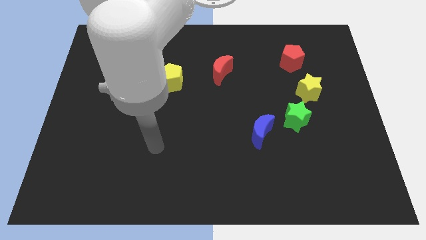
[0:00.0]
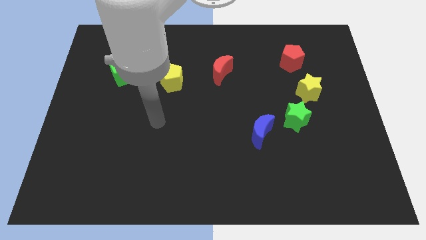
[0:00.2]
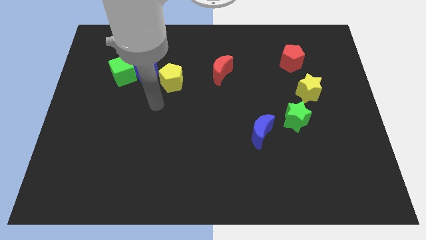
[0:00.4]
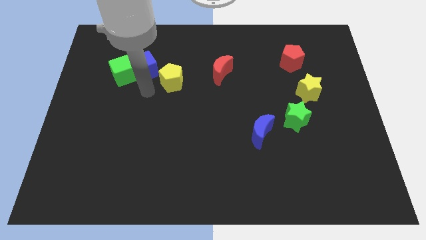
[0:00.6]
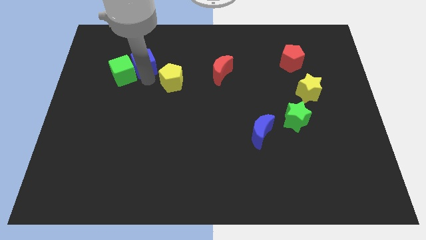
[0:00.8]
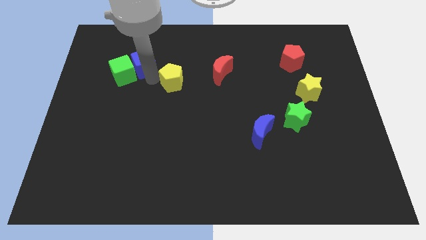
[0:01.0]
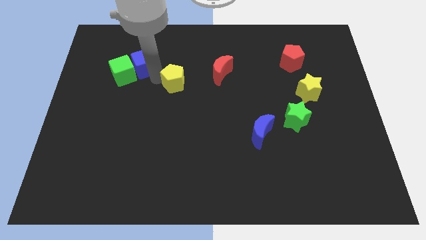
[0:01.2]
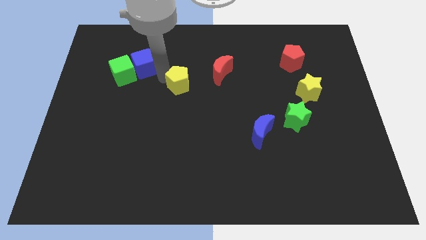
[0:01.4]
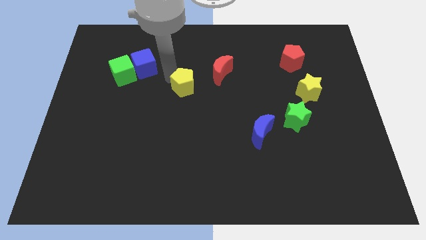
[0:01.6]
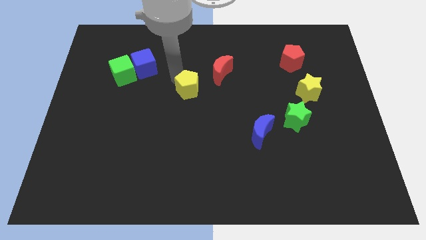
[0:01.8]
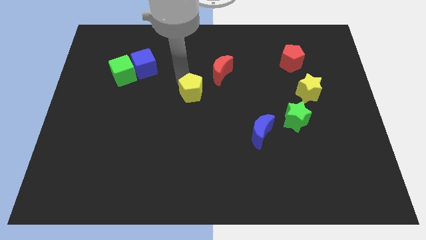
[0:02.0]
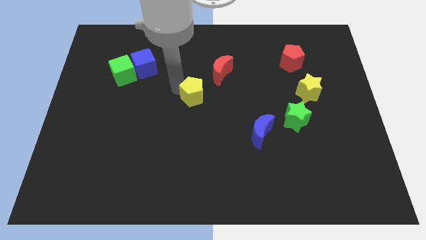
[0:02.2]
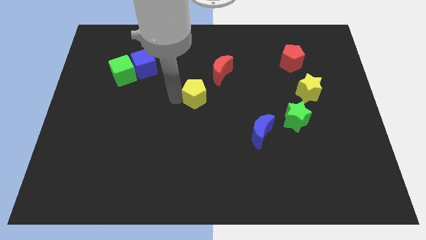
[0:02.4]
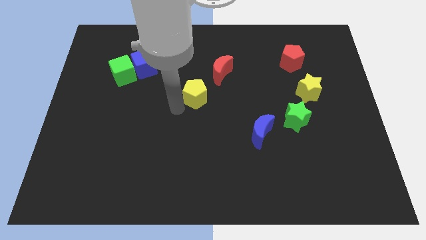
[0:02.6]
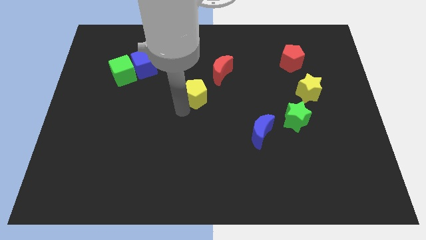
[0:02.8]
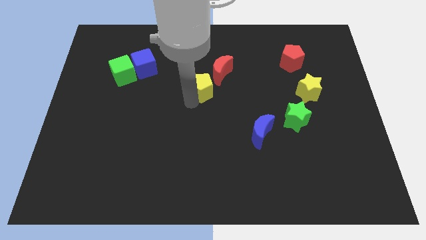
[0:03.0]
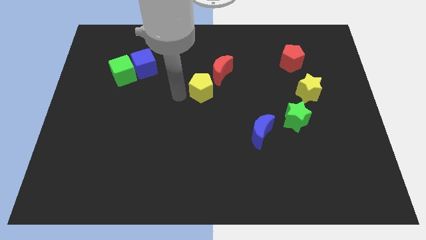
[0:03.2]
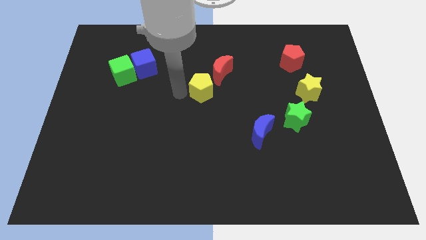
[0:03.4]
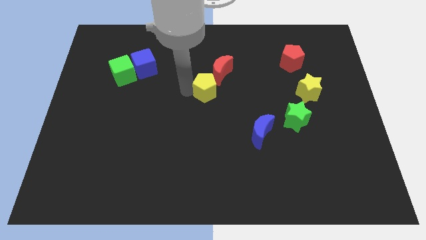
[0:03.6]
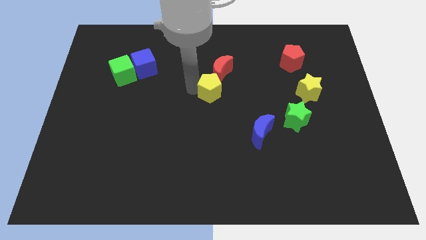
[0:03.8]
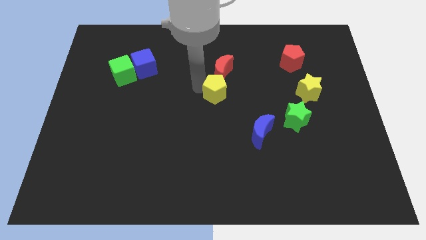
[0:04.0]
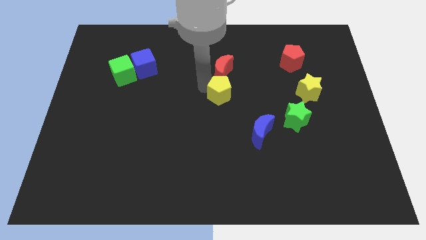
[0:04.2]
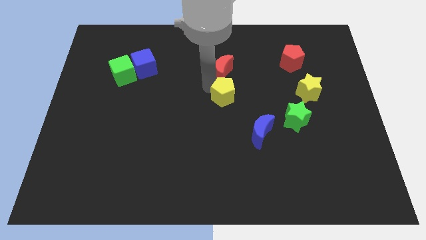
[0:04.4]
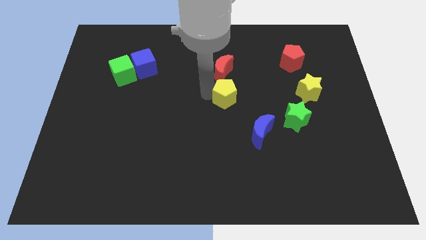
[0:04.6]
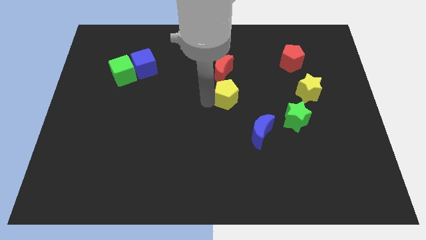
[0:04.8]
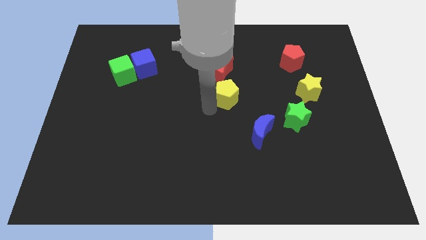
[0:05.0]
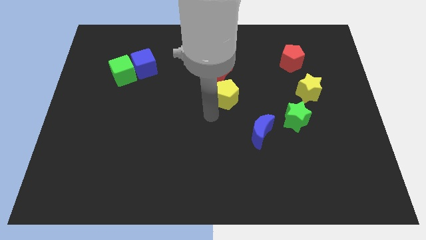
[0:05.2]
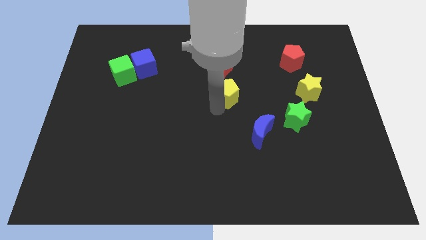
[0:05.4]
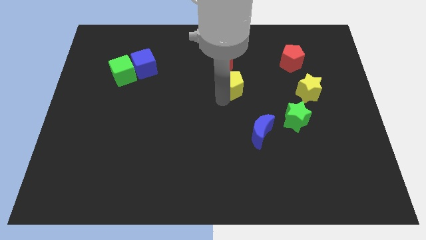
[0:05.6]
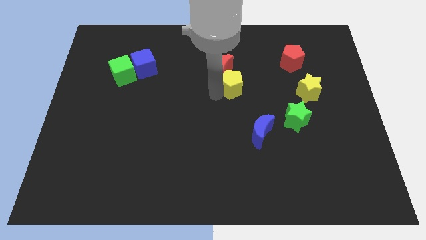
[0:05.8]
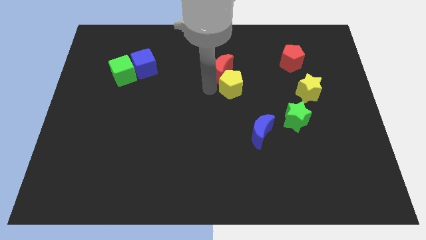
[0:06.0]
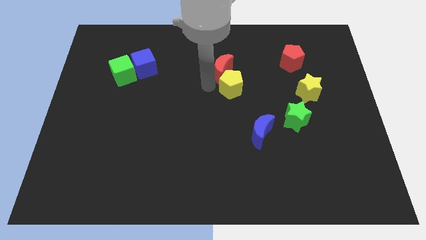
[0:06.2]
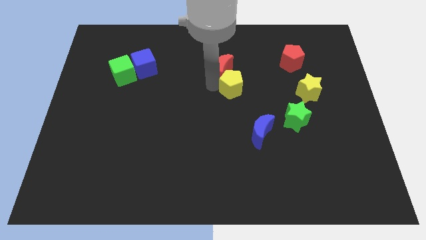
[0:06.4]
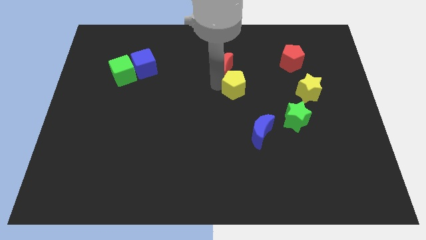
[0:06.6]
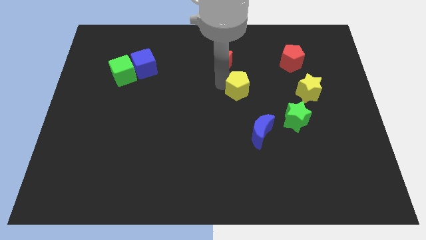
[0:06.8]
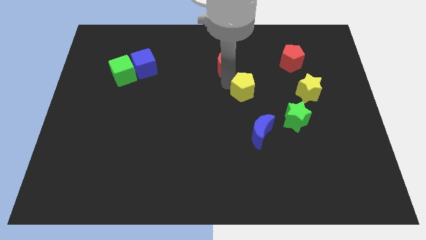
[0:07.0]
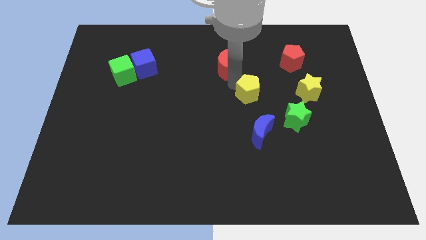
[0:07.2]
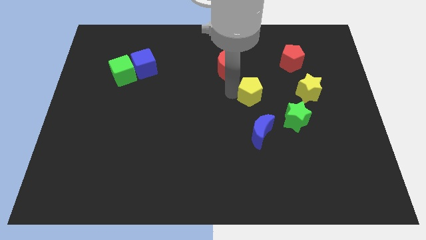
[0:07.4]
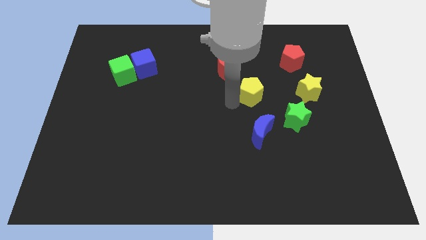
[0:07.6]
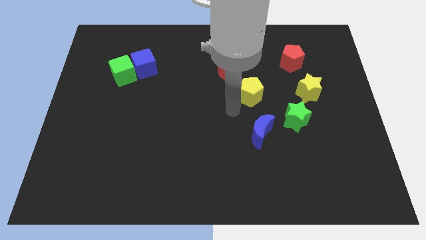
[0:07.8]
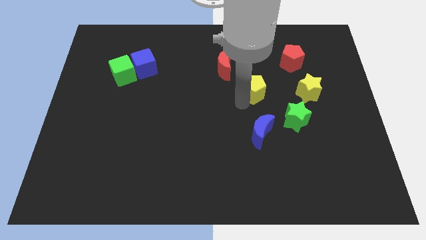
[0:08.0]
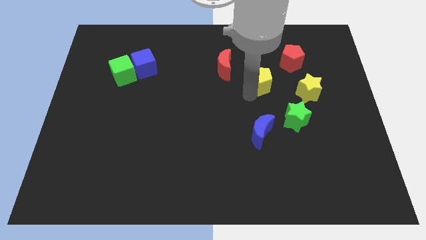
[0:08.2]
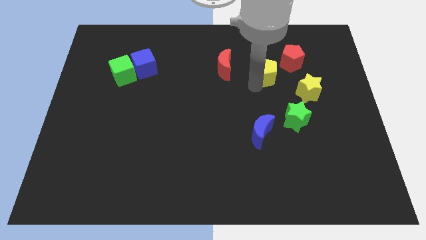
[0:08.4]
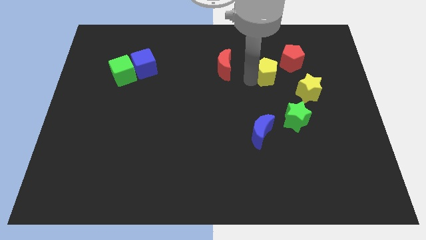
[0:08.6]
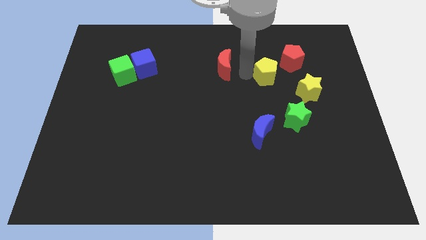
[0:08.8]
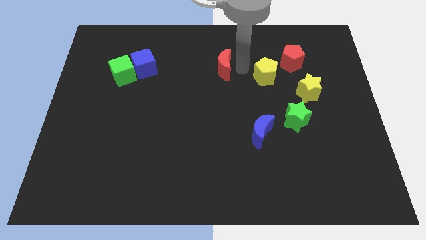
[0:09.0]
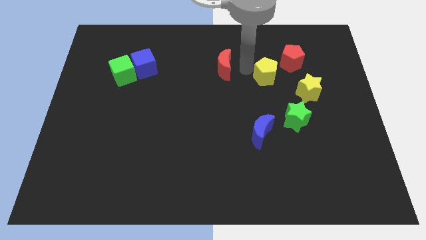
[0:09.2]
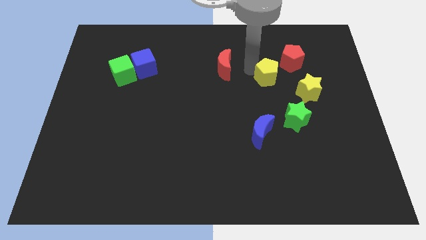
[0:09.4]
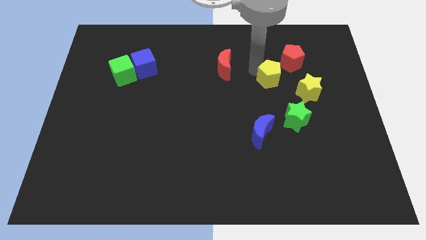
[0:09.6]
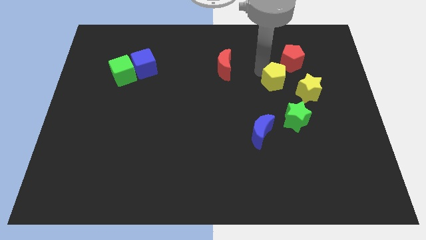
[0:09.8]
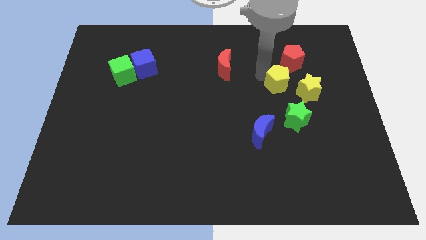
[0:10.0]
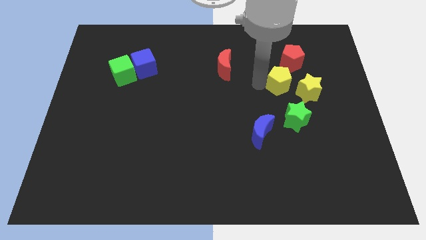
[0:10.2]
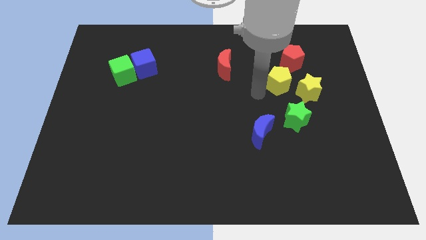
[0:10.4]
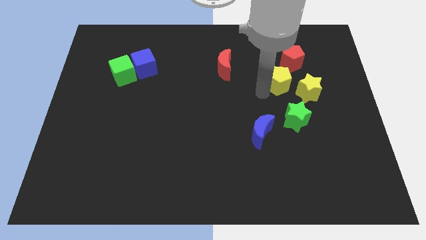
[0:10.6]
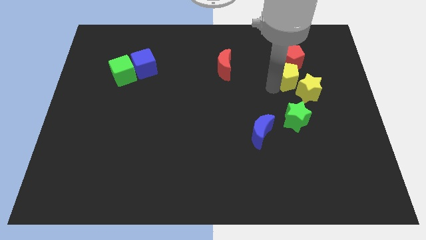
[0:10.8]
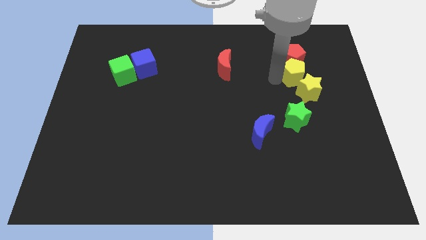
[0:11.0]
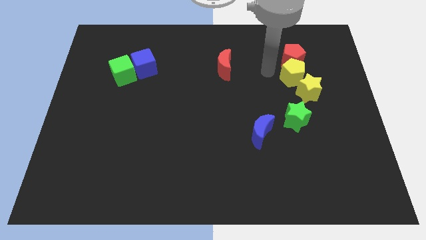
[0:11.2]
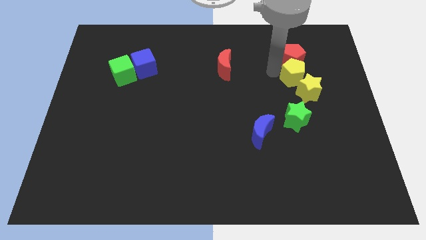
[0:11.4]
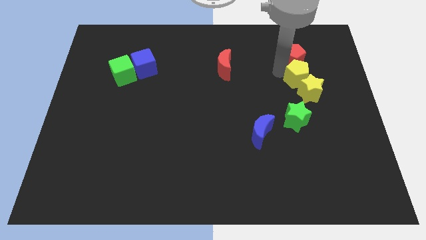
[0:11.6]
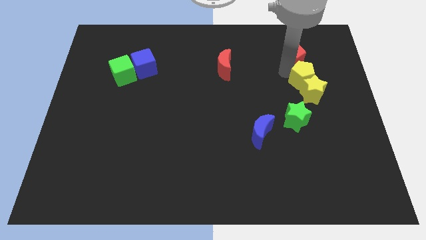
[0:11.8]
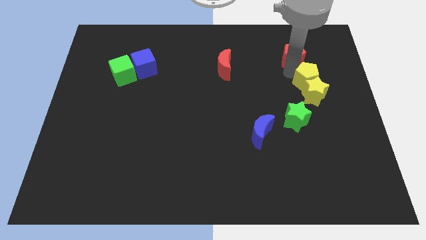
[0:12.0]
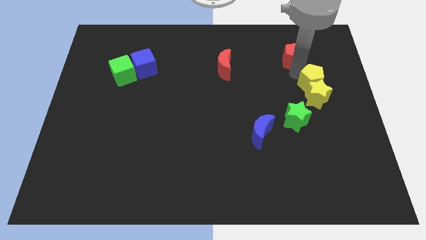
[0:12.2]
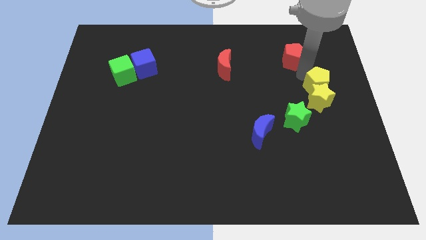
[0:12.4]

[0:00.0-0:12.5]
push the yellow pentagon to the right side

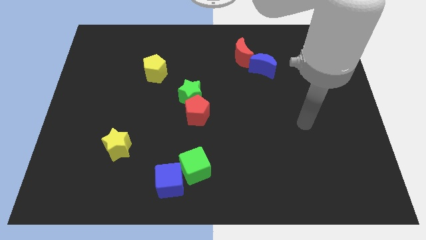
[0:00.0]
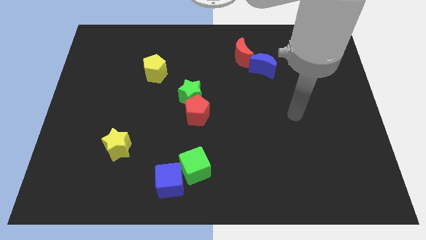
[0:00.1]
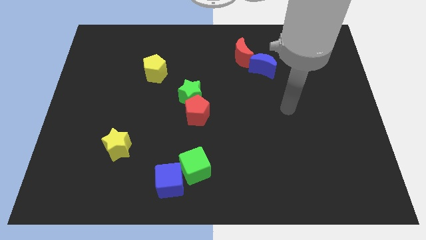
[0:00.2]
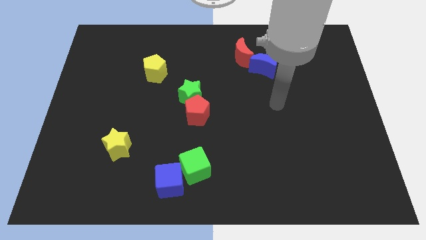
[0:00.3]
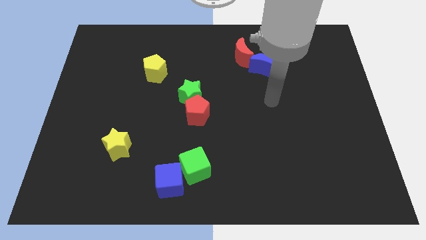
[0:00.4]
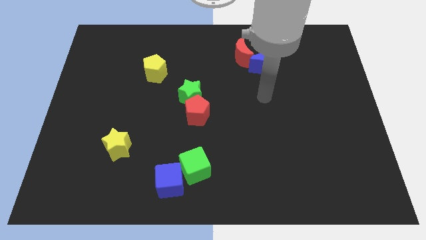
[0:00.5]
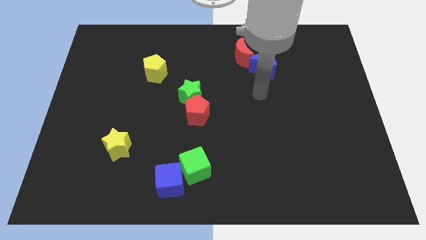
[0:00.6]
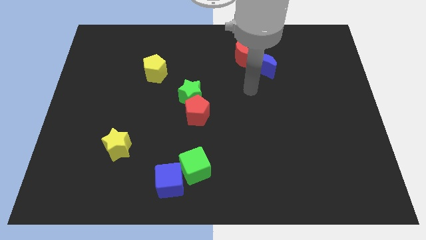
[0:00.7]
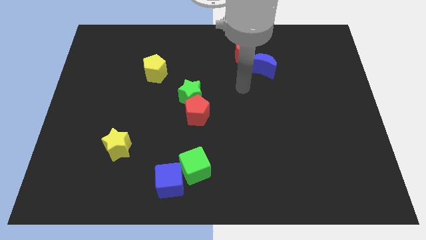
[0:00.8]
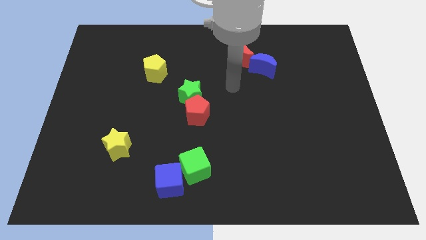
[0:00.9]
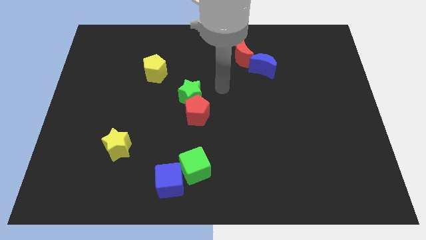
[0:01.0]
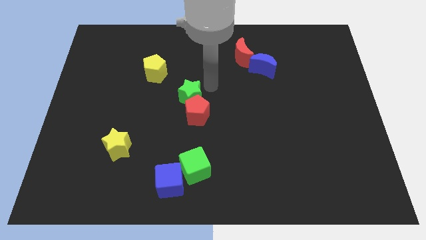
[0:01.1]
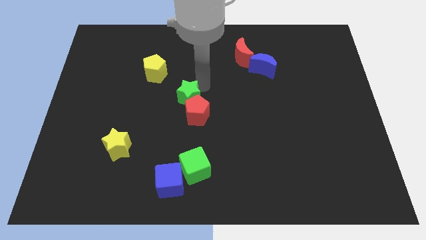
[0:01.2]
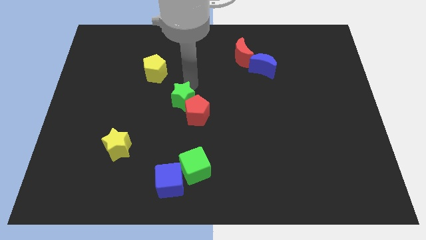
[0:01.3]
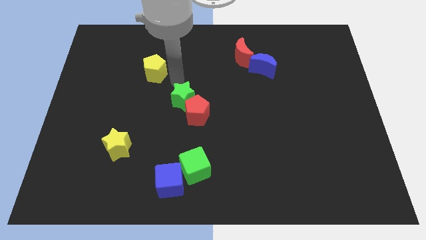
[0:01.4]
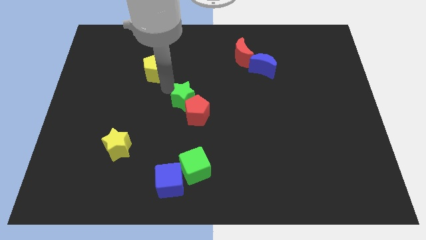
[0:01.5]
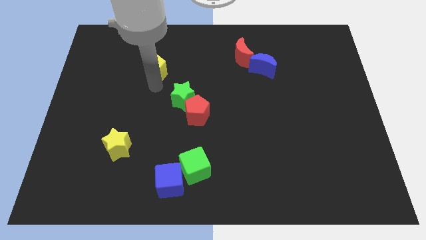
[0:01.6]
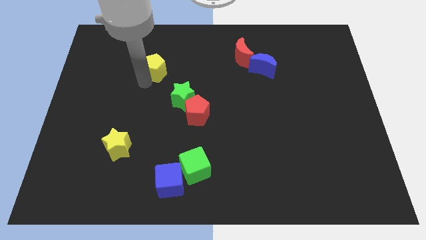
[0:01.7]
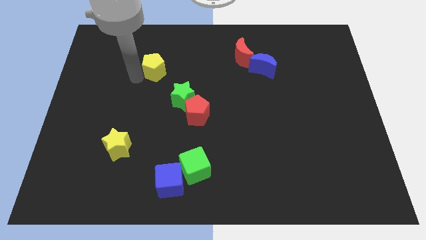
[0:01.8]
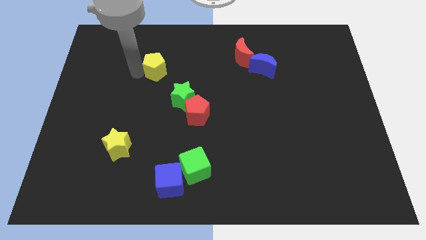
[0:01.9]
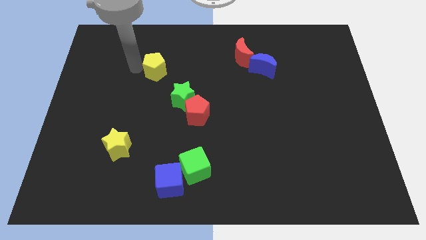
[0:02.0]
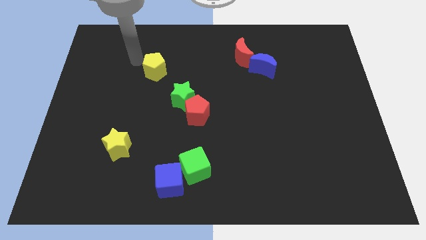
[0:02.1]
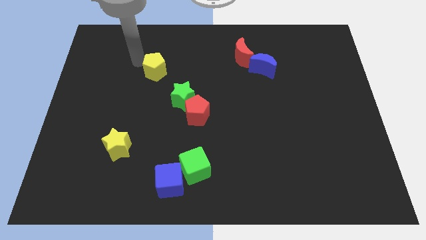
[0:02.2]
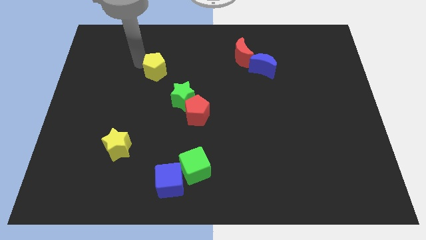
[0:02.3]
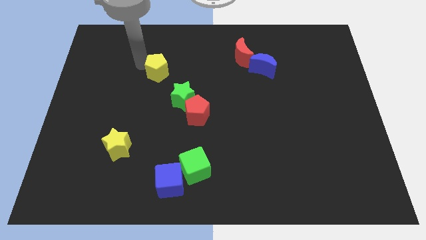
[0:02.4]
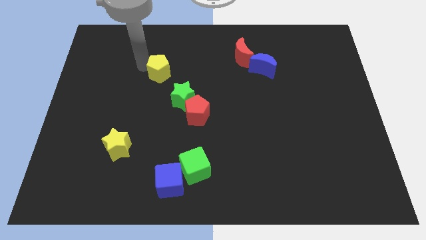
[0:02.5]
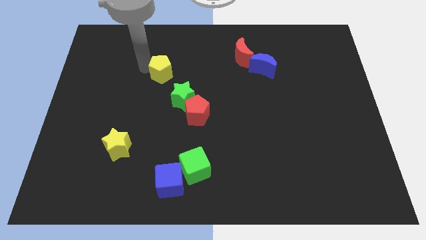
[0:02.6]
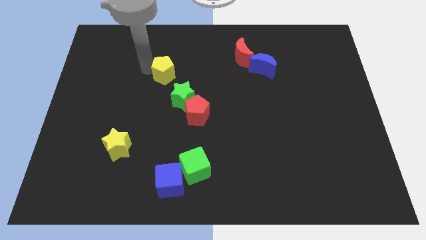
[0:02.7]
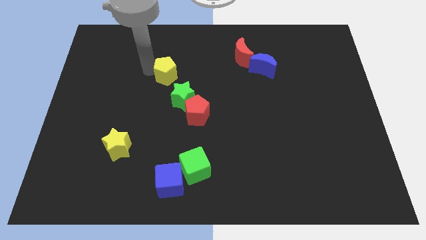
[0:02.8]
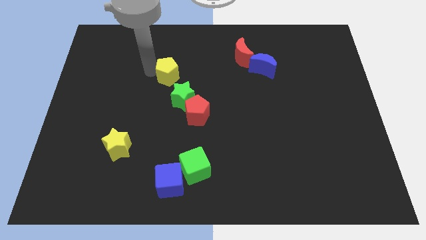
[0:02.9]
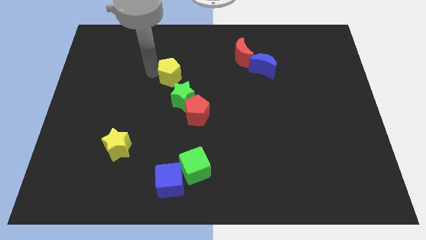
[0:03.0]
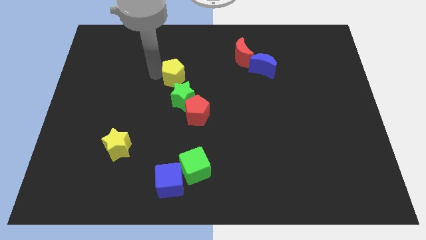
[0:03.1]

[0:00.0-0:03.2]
move the yellow pentagon to the center
